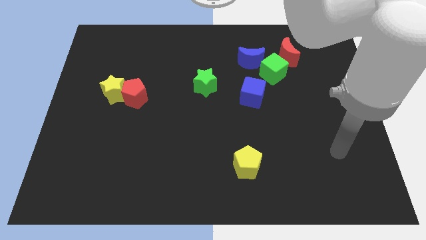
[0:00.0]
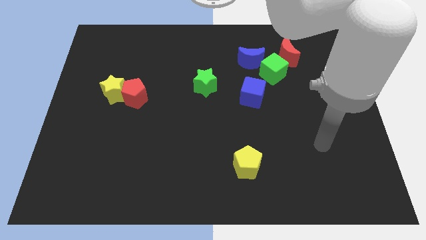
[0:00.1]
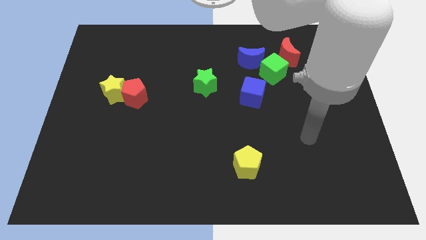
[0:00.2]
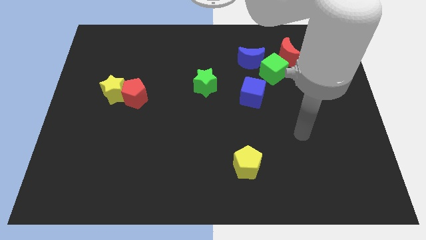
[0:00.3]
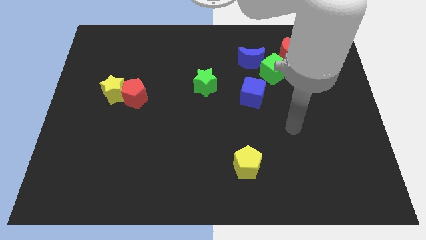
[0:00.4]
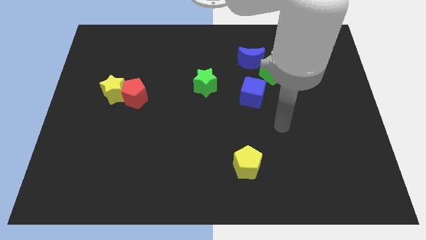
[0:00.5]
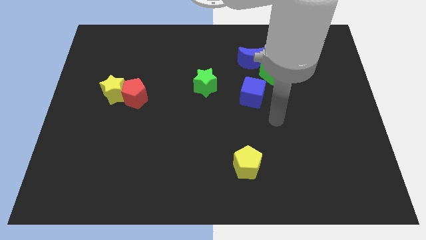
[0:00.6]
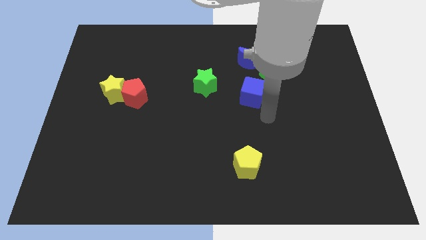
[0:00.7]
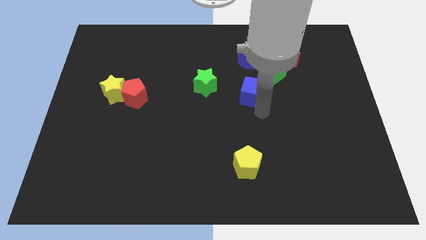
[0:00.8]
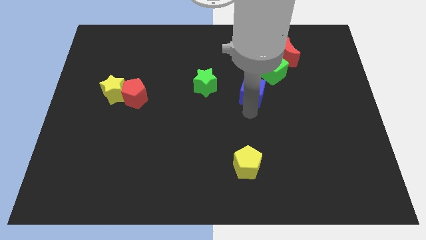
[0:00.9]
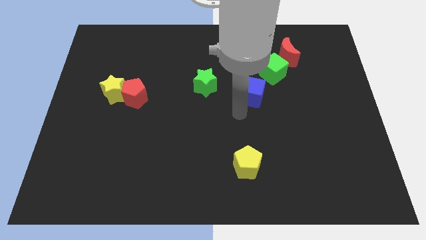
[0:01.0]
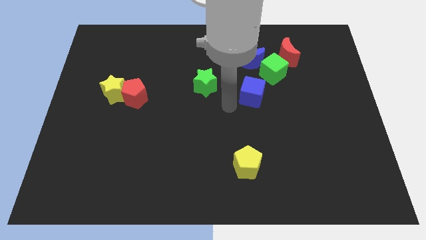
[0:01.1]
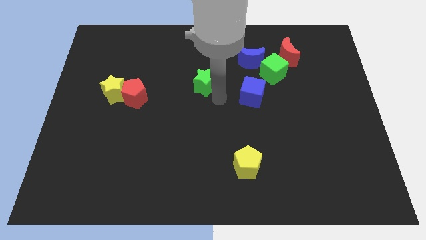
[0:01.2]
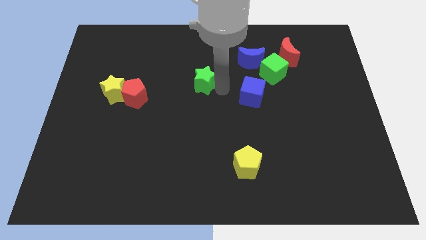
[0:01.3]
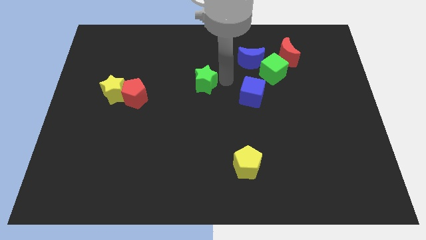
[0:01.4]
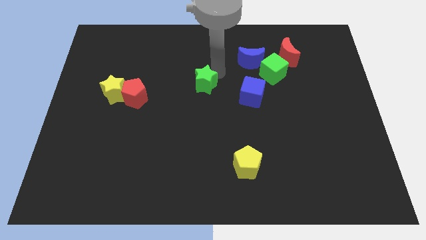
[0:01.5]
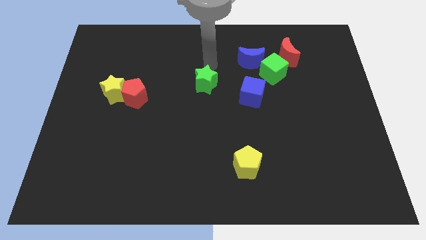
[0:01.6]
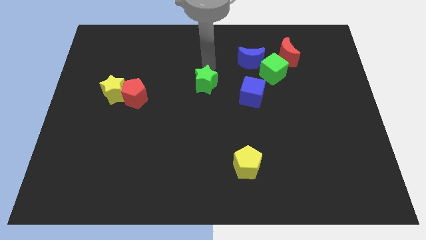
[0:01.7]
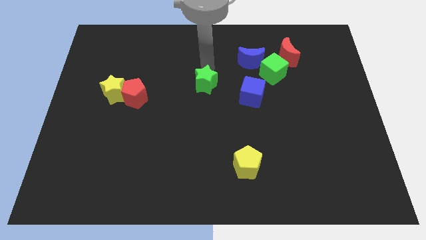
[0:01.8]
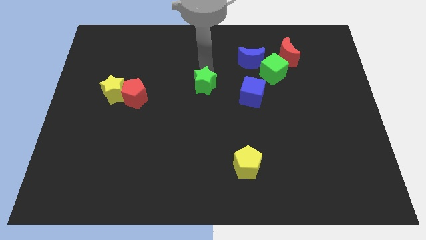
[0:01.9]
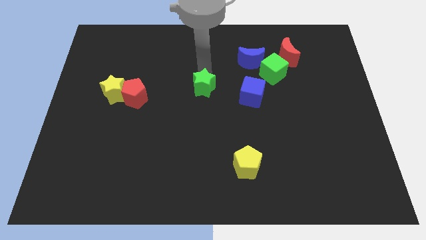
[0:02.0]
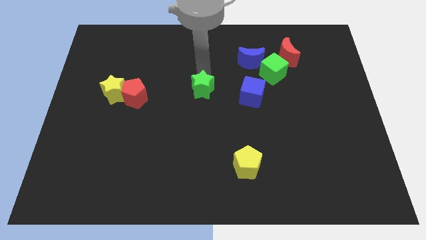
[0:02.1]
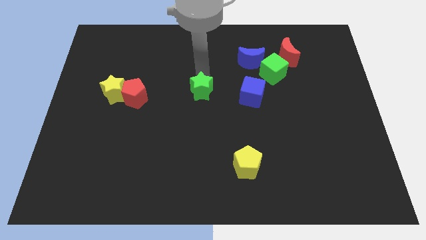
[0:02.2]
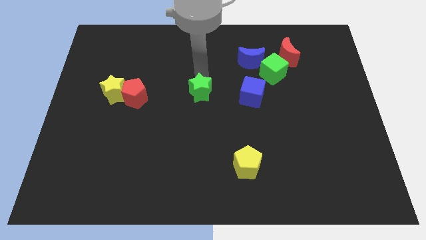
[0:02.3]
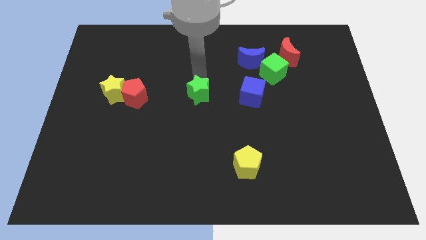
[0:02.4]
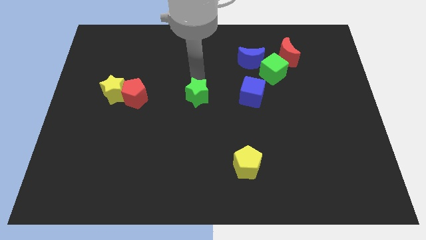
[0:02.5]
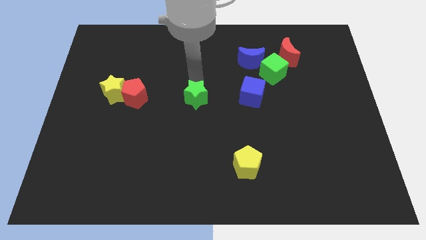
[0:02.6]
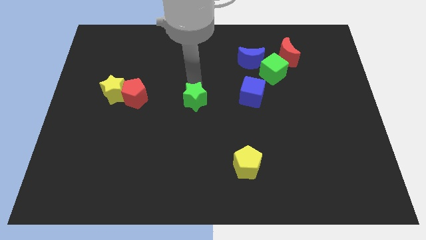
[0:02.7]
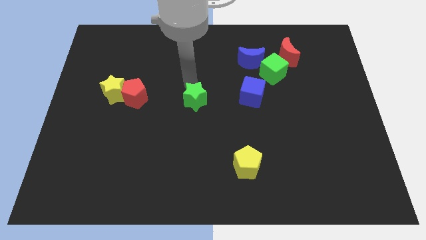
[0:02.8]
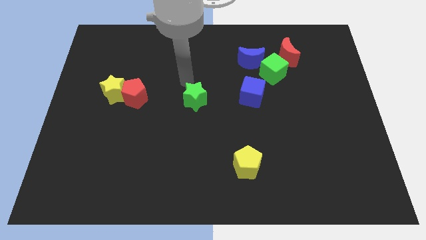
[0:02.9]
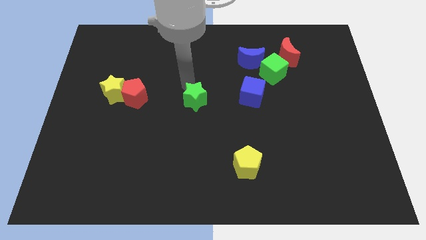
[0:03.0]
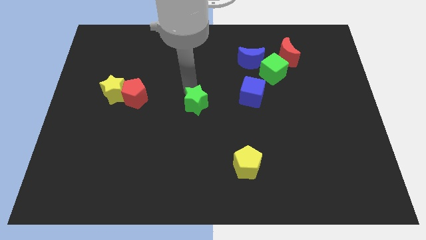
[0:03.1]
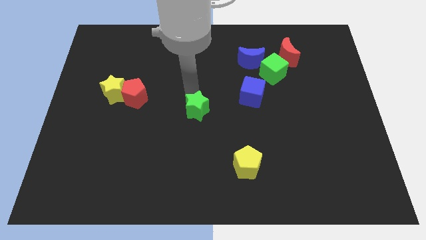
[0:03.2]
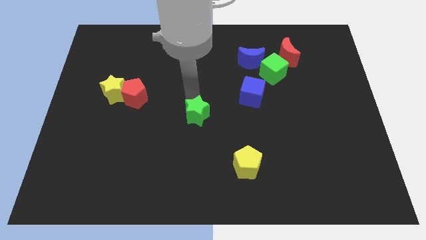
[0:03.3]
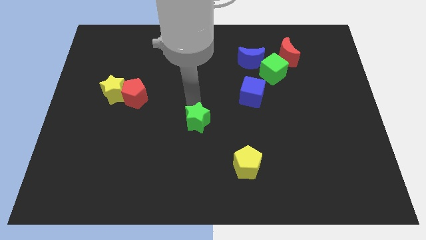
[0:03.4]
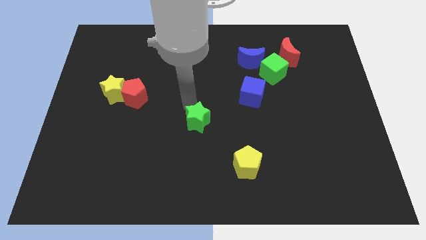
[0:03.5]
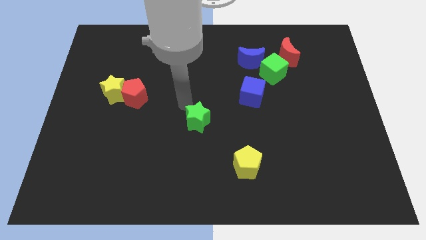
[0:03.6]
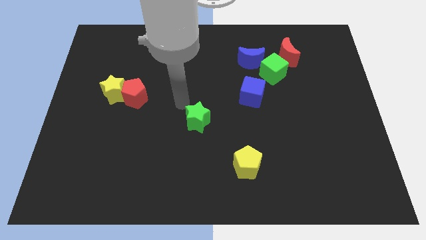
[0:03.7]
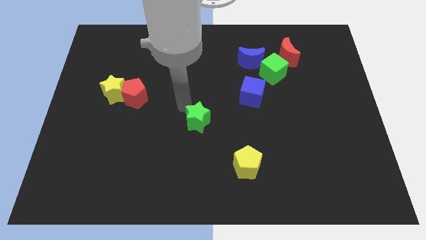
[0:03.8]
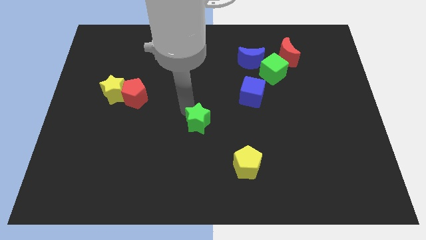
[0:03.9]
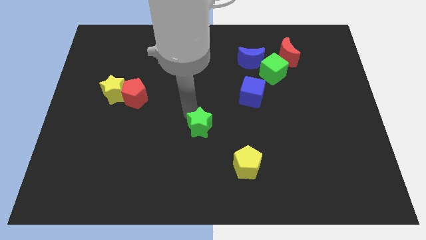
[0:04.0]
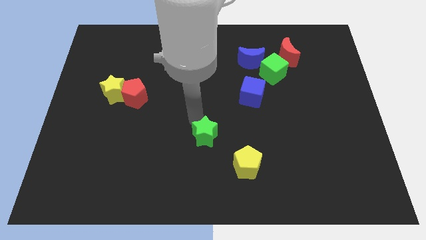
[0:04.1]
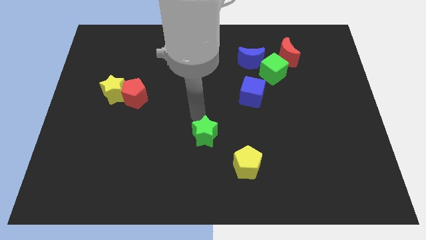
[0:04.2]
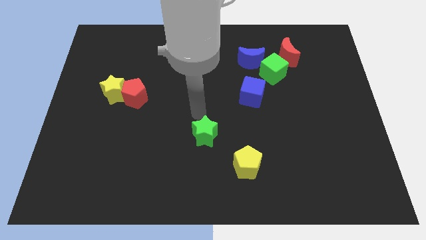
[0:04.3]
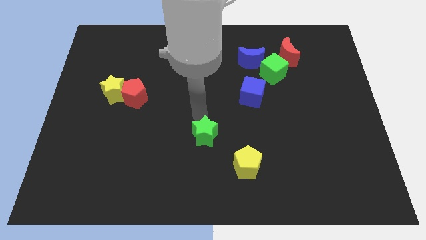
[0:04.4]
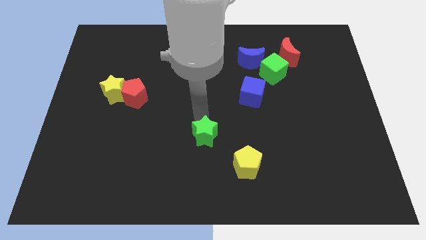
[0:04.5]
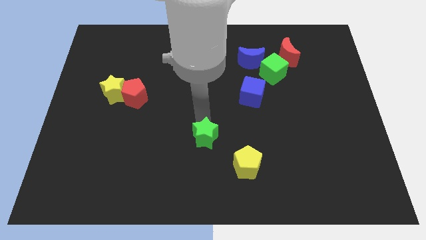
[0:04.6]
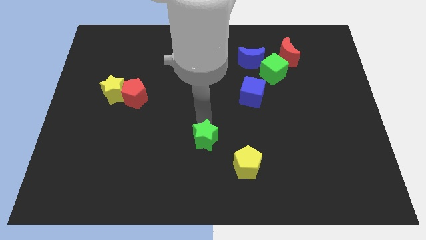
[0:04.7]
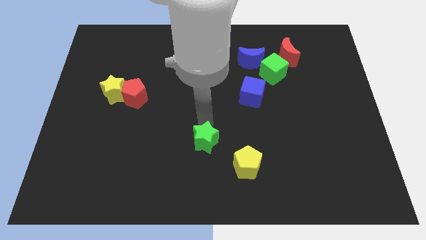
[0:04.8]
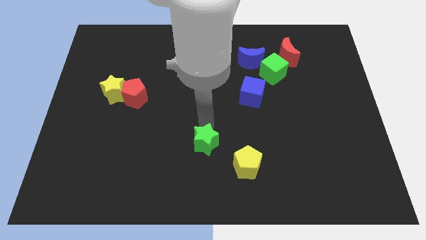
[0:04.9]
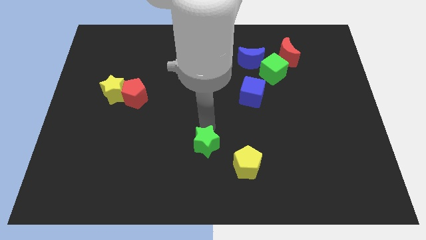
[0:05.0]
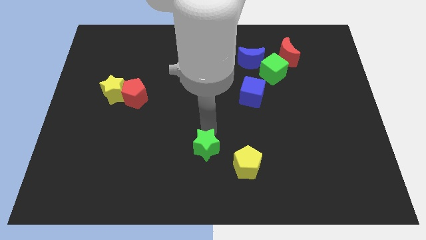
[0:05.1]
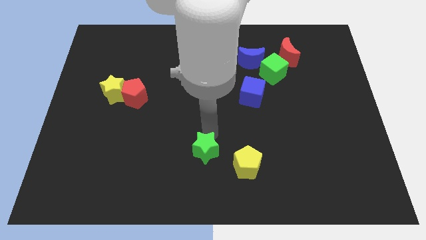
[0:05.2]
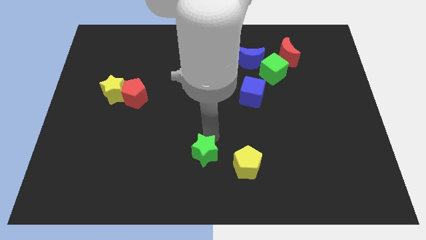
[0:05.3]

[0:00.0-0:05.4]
move the green star to the bottom side
